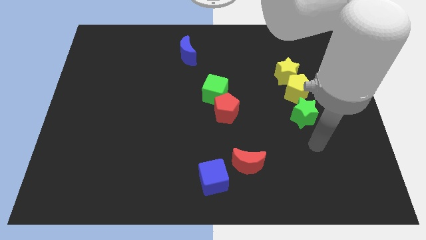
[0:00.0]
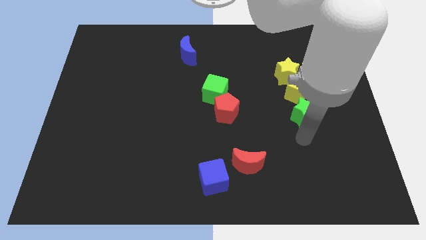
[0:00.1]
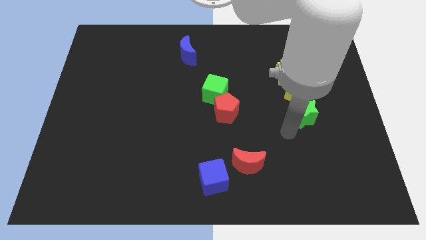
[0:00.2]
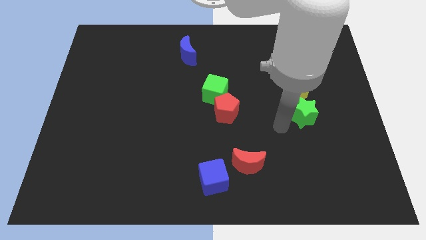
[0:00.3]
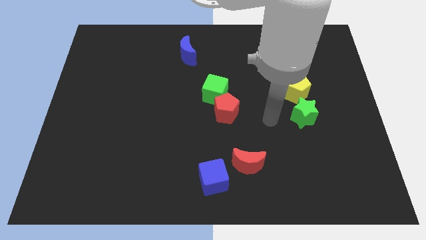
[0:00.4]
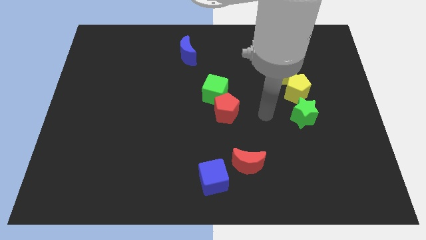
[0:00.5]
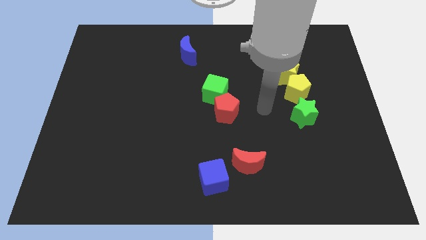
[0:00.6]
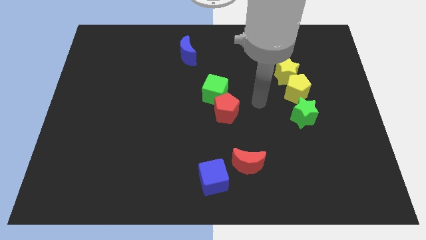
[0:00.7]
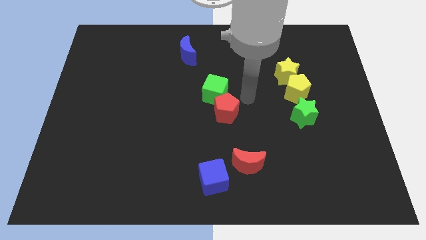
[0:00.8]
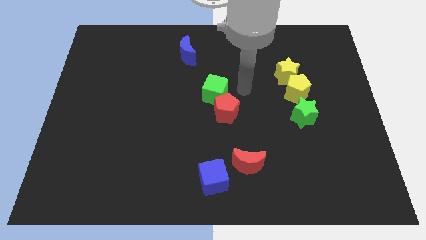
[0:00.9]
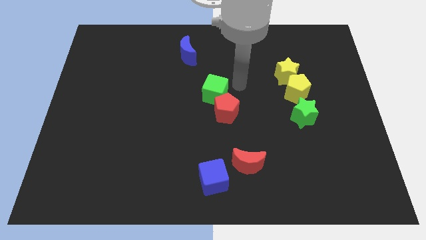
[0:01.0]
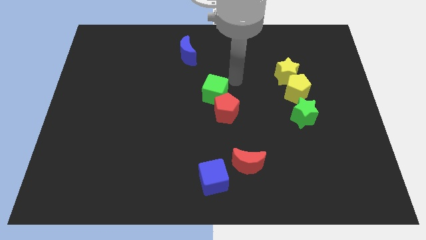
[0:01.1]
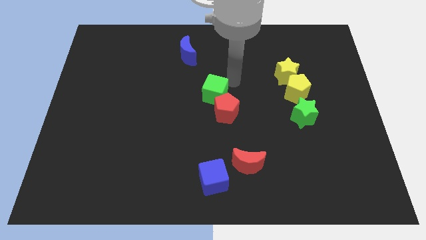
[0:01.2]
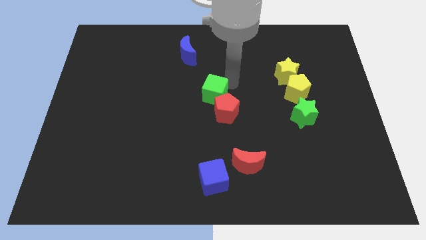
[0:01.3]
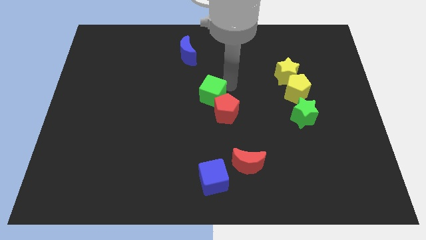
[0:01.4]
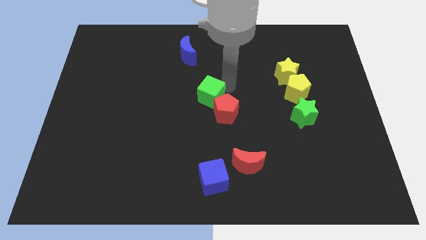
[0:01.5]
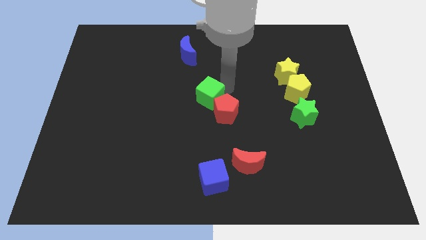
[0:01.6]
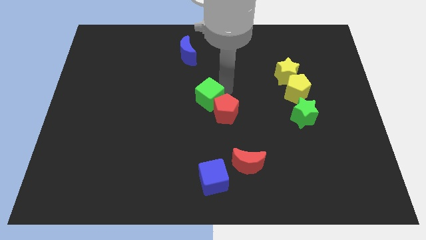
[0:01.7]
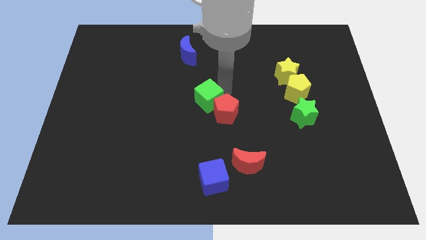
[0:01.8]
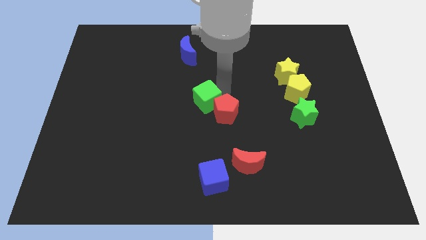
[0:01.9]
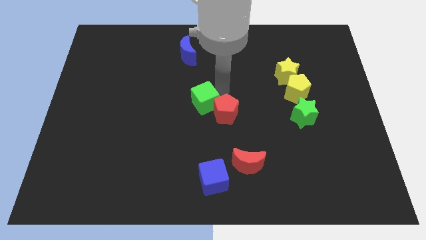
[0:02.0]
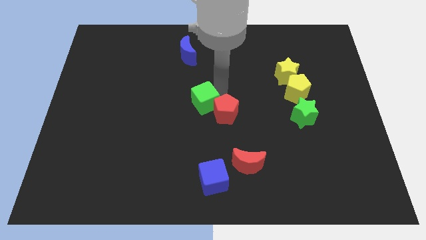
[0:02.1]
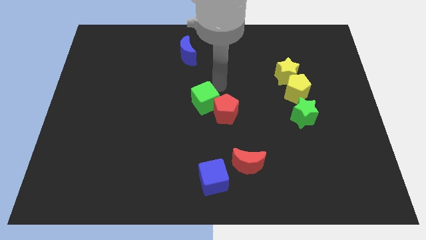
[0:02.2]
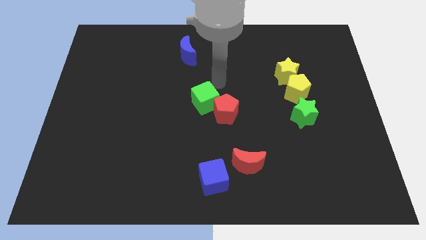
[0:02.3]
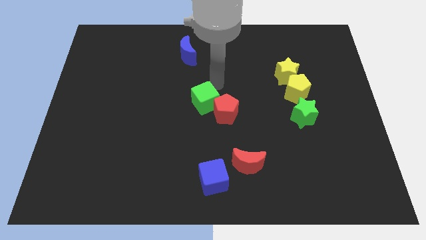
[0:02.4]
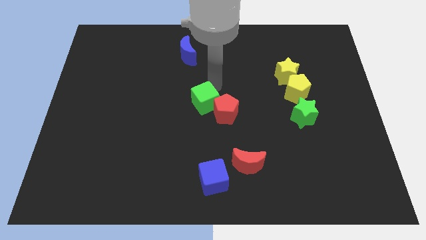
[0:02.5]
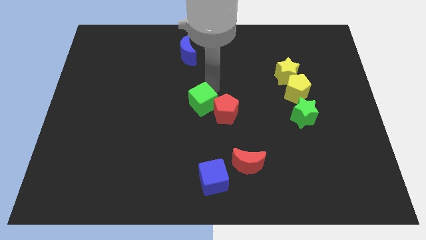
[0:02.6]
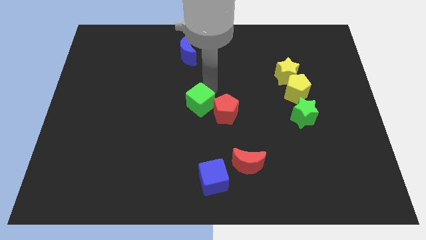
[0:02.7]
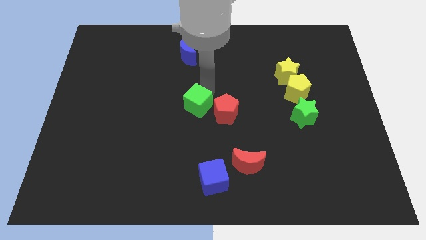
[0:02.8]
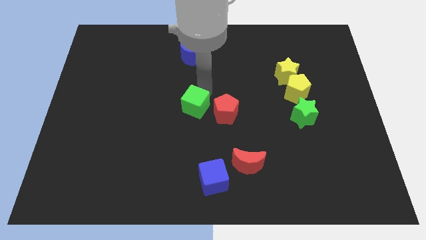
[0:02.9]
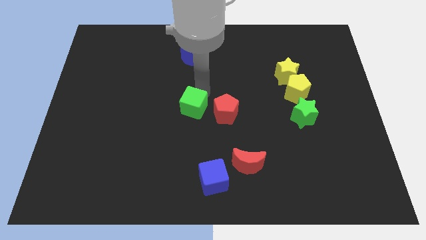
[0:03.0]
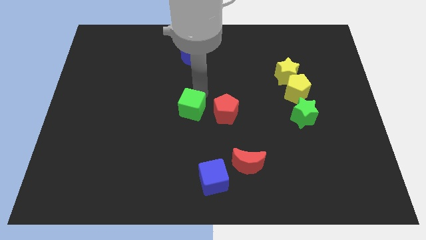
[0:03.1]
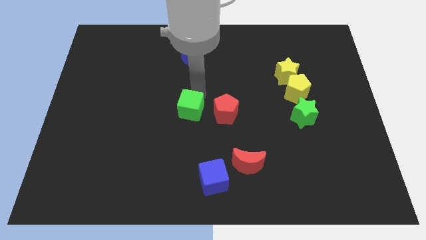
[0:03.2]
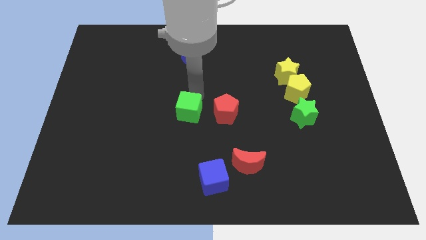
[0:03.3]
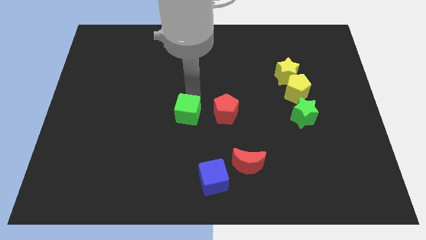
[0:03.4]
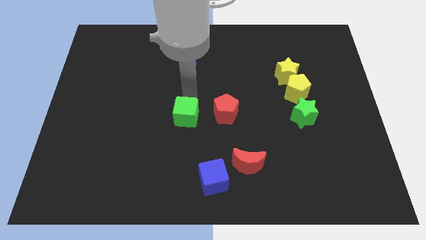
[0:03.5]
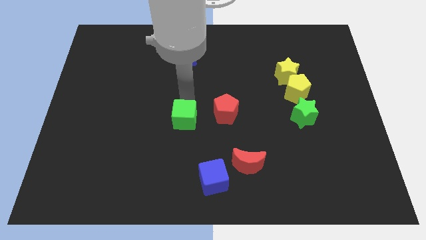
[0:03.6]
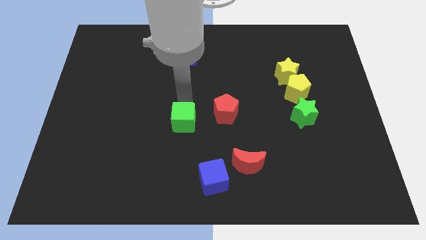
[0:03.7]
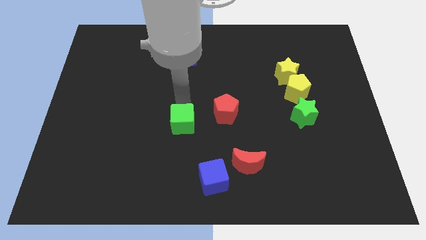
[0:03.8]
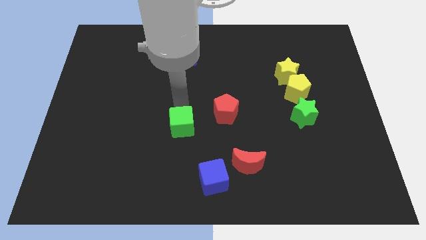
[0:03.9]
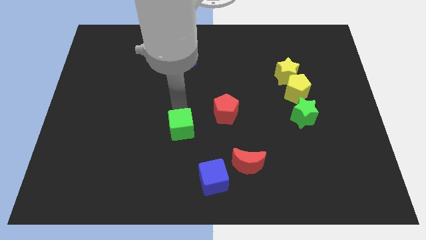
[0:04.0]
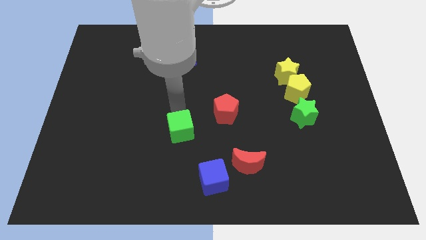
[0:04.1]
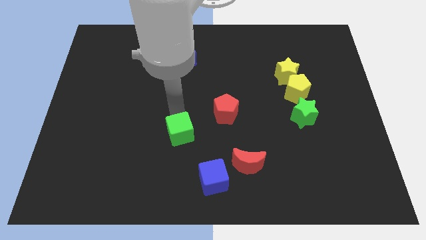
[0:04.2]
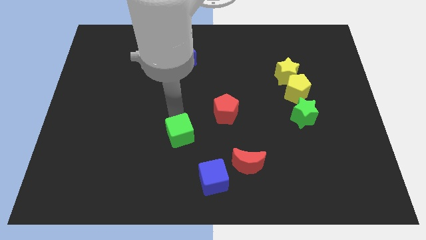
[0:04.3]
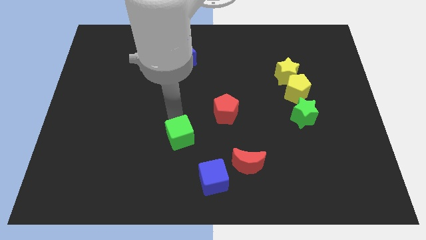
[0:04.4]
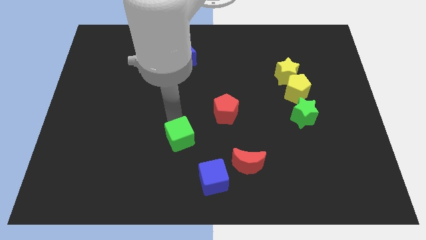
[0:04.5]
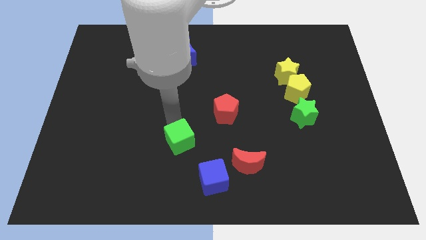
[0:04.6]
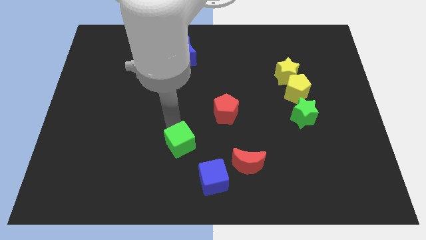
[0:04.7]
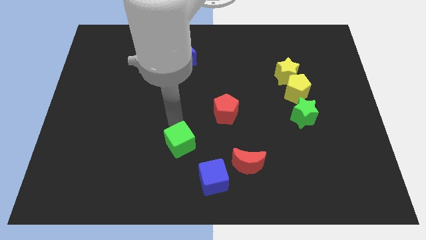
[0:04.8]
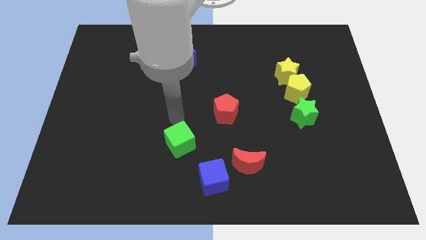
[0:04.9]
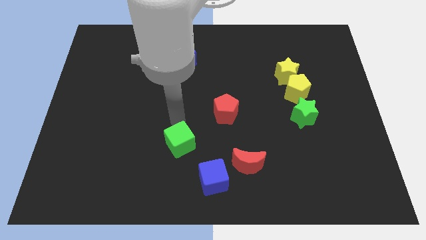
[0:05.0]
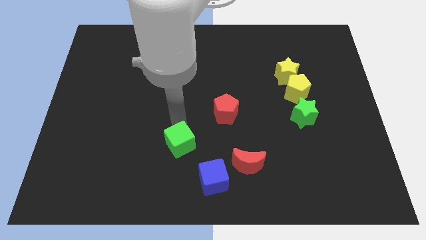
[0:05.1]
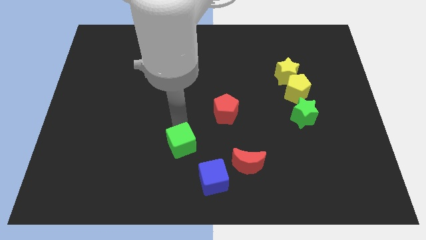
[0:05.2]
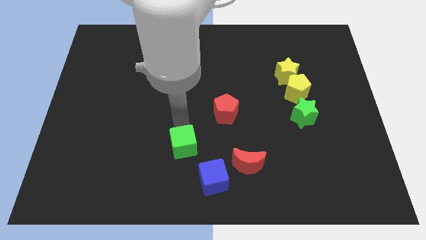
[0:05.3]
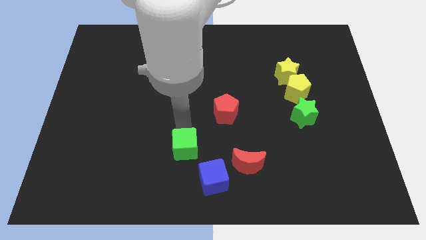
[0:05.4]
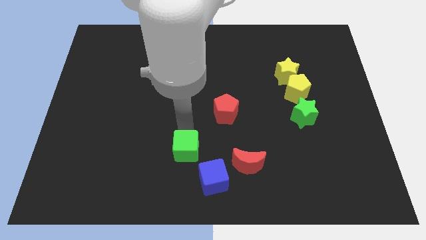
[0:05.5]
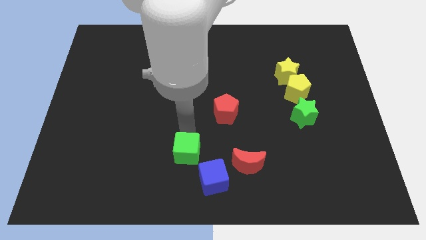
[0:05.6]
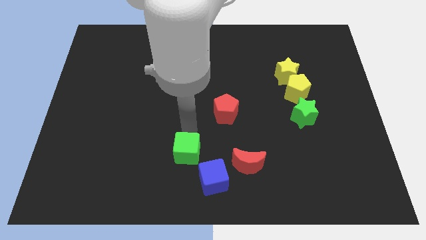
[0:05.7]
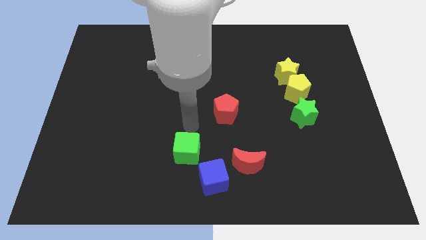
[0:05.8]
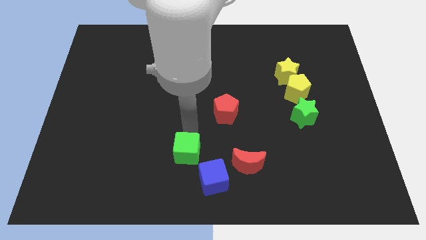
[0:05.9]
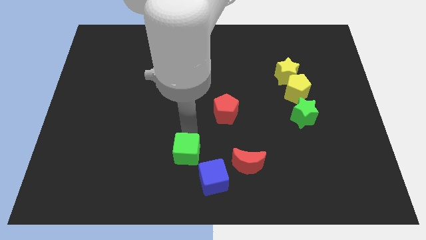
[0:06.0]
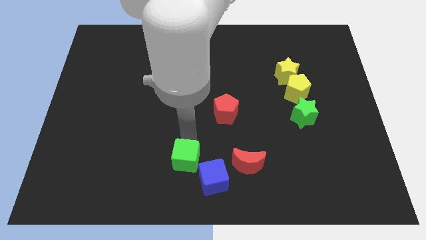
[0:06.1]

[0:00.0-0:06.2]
put the green cube to the bottom side

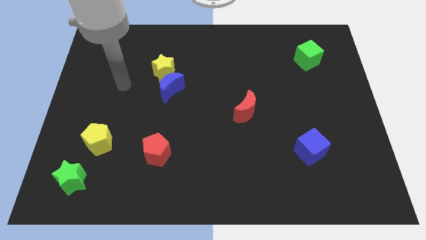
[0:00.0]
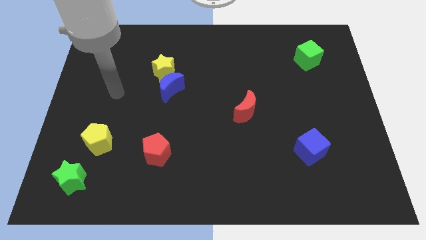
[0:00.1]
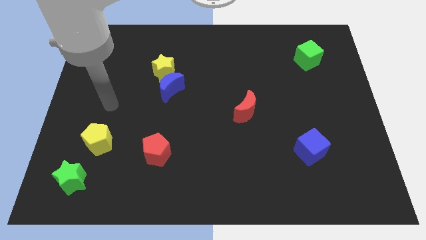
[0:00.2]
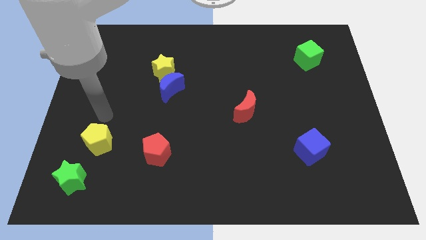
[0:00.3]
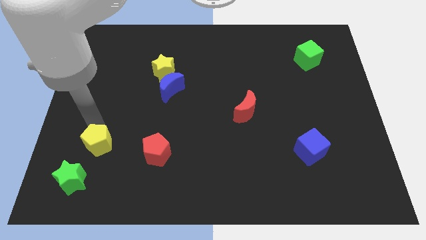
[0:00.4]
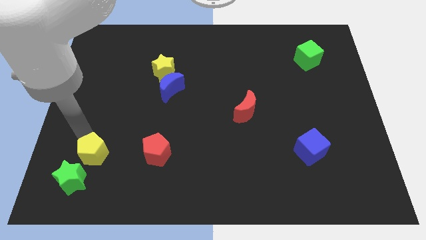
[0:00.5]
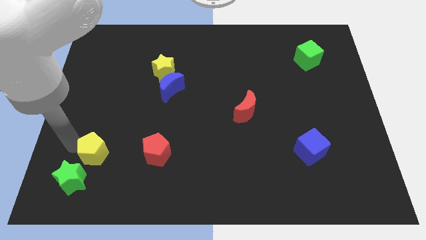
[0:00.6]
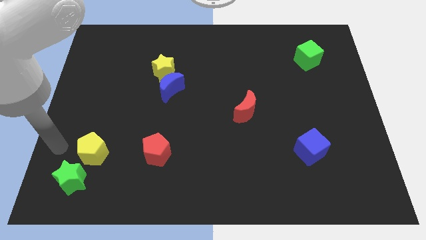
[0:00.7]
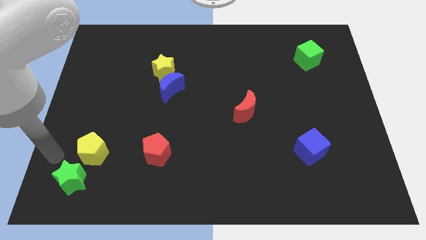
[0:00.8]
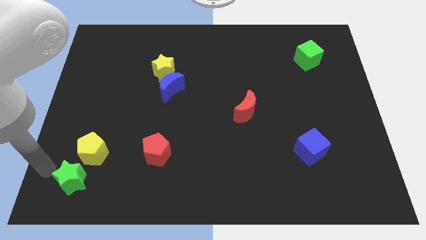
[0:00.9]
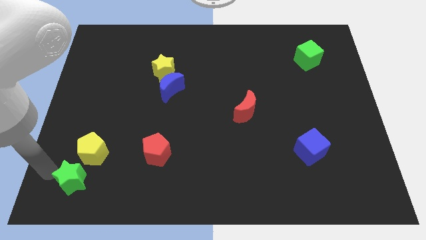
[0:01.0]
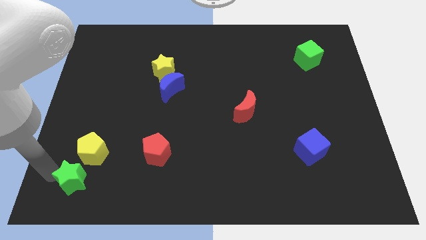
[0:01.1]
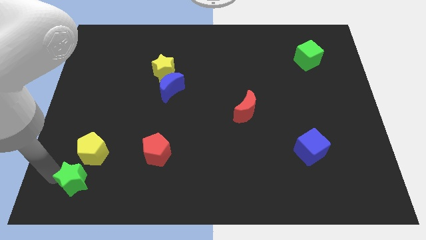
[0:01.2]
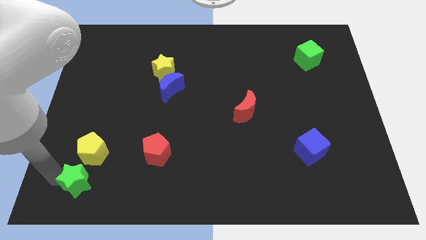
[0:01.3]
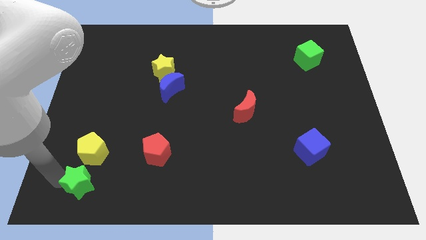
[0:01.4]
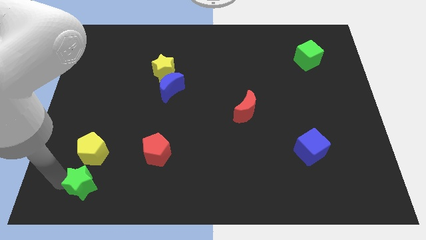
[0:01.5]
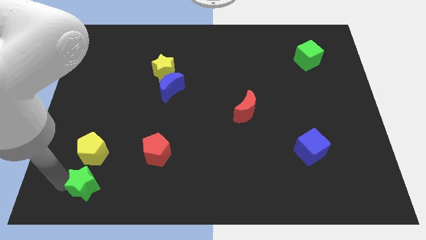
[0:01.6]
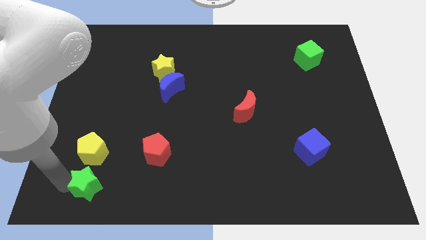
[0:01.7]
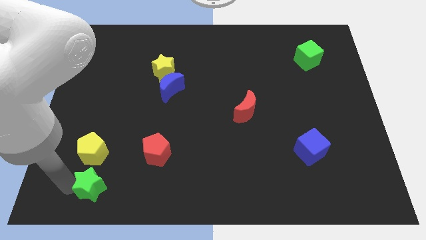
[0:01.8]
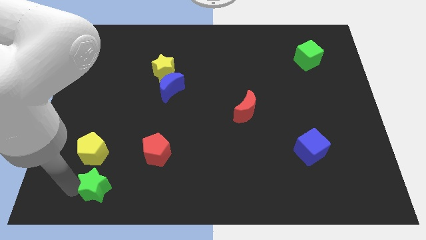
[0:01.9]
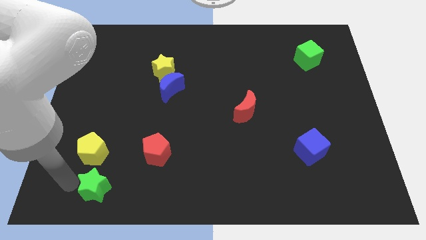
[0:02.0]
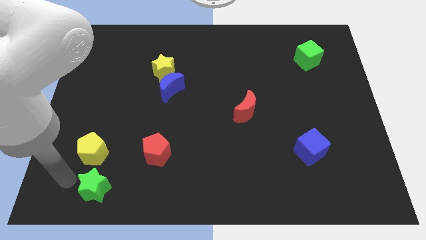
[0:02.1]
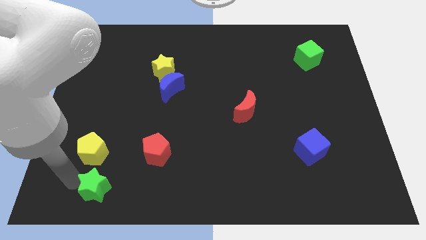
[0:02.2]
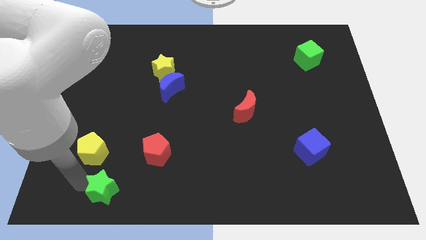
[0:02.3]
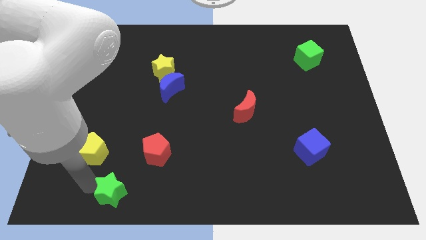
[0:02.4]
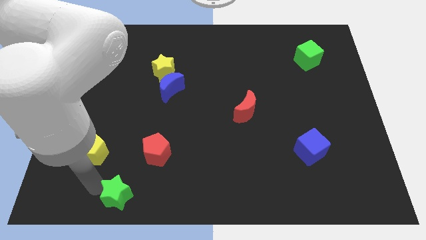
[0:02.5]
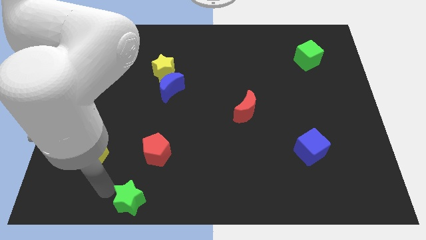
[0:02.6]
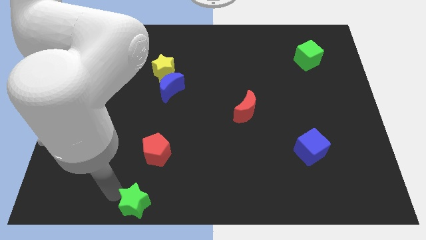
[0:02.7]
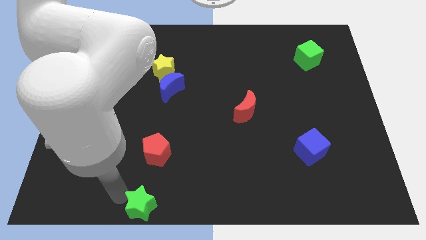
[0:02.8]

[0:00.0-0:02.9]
put the green star to the bottom side
